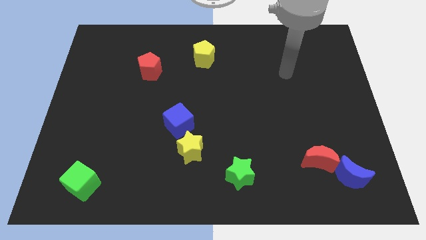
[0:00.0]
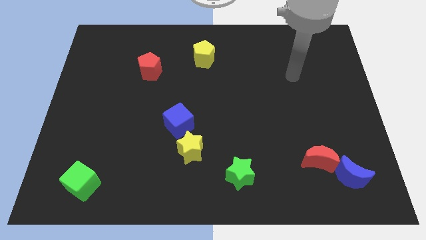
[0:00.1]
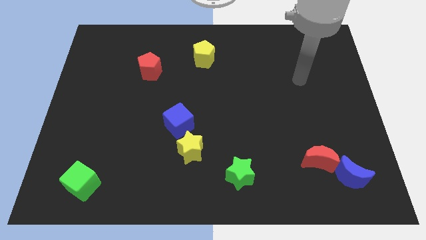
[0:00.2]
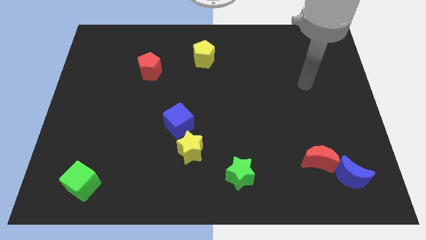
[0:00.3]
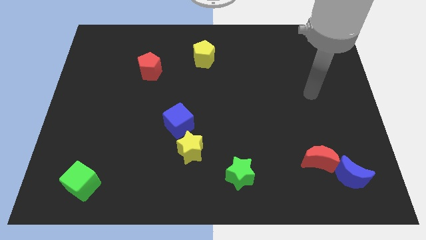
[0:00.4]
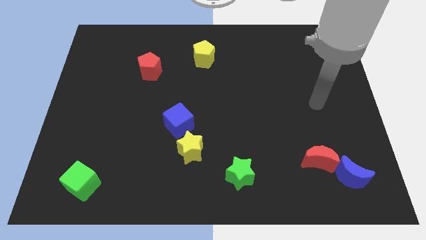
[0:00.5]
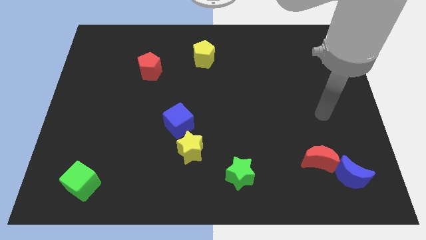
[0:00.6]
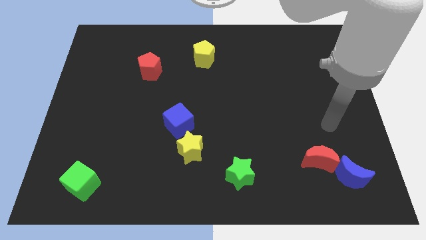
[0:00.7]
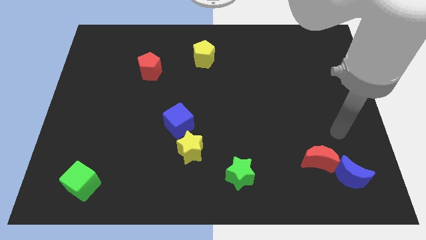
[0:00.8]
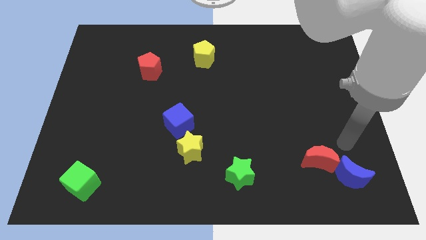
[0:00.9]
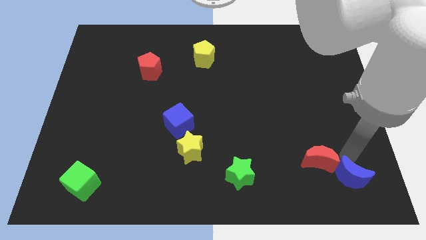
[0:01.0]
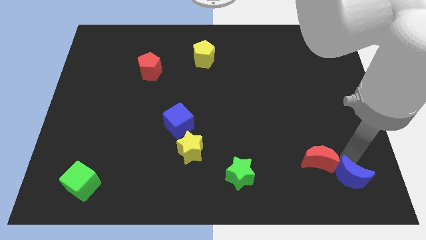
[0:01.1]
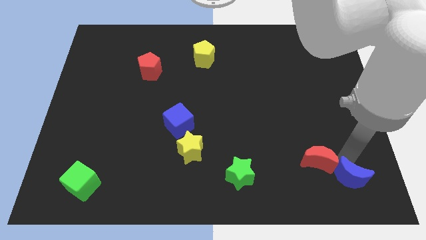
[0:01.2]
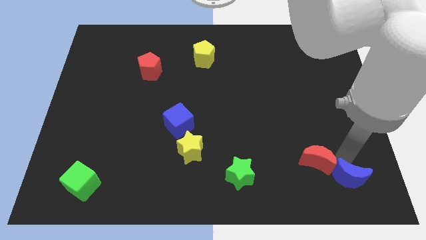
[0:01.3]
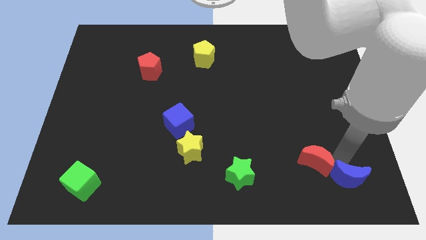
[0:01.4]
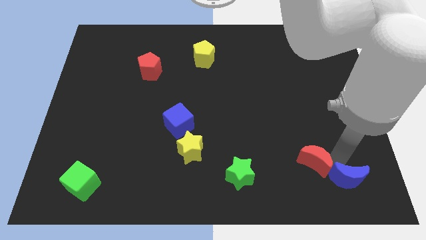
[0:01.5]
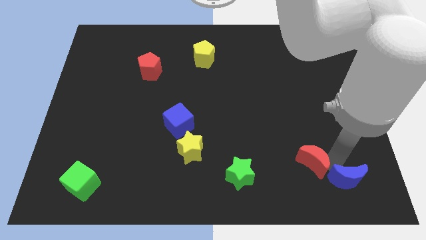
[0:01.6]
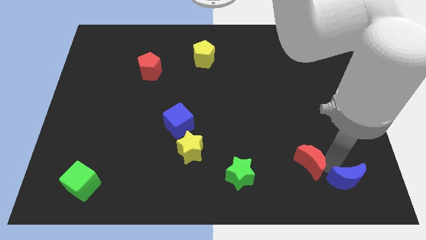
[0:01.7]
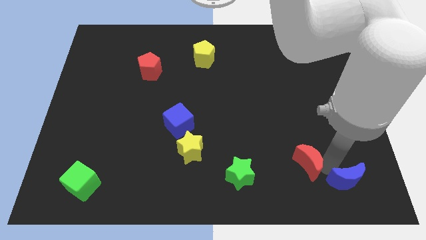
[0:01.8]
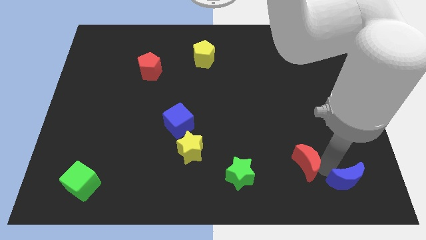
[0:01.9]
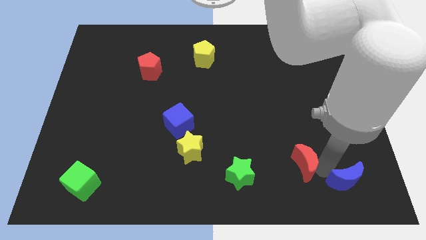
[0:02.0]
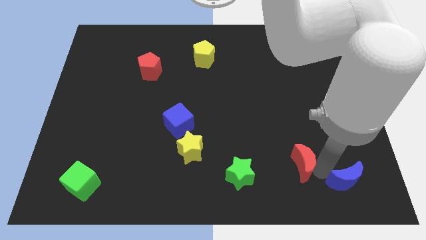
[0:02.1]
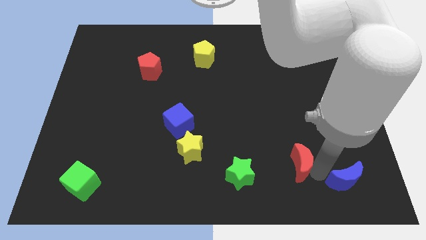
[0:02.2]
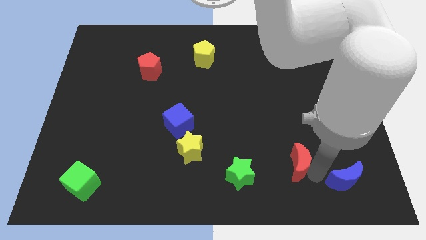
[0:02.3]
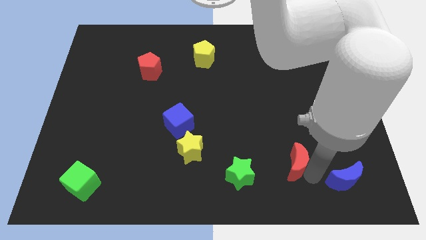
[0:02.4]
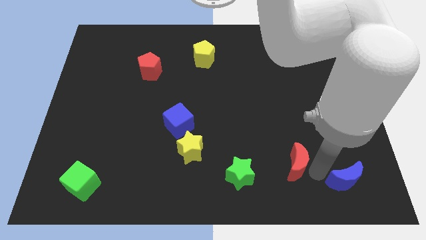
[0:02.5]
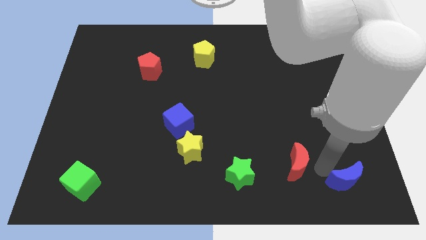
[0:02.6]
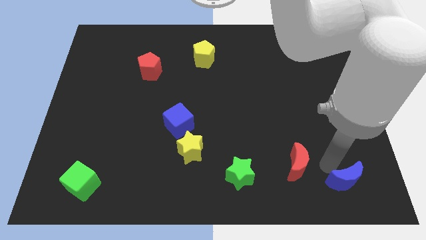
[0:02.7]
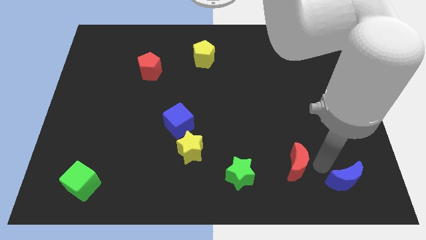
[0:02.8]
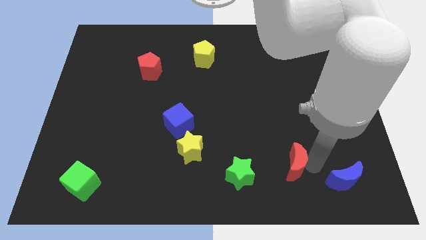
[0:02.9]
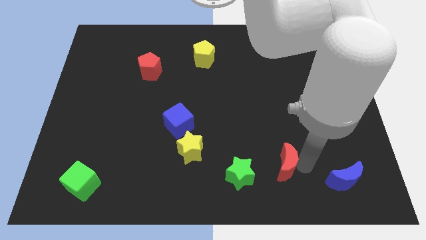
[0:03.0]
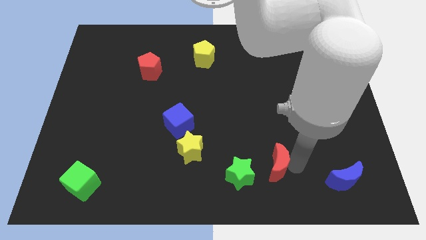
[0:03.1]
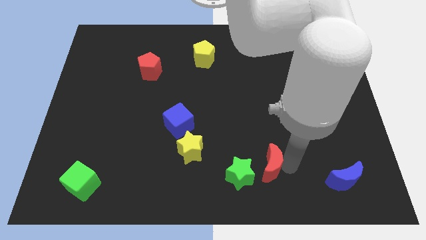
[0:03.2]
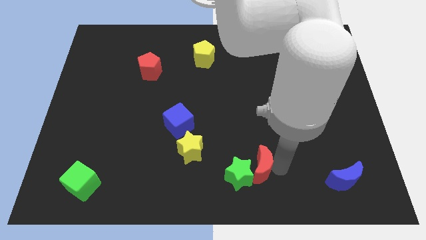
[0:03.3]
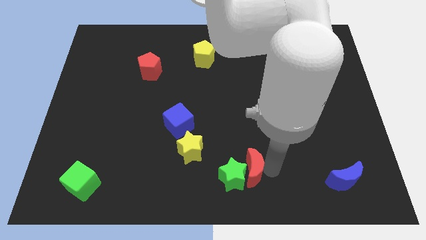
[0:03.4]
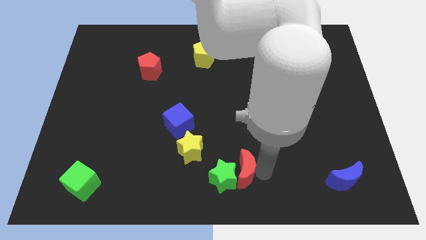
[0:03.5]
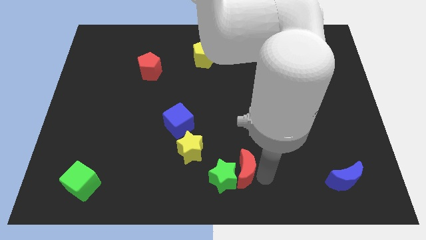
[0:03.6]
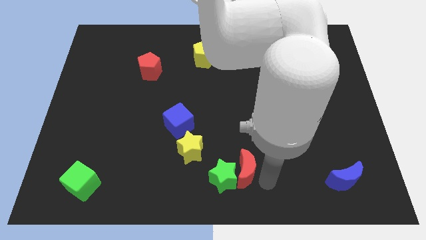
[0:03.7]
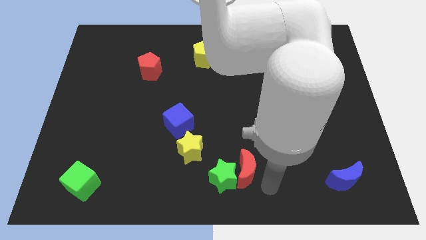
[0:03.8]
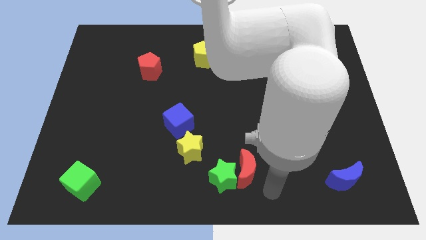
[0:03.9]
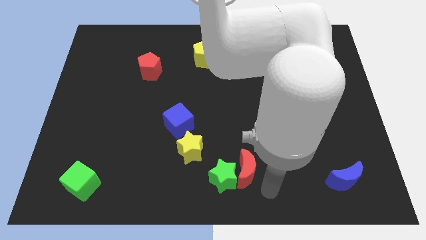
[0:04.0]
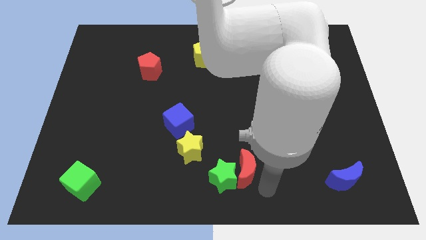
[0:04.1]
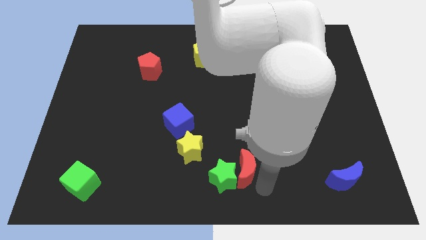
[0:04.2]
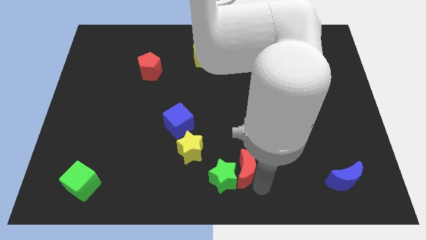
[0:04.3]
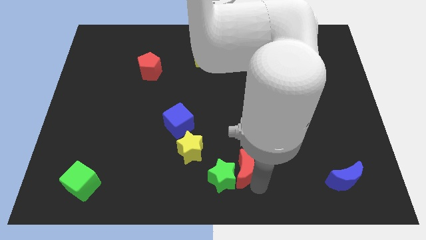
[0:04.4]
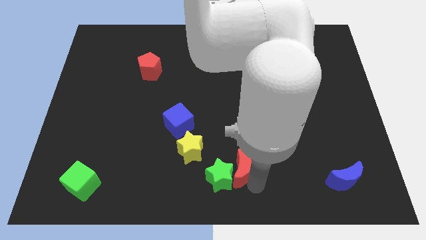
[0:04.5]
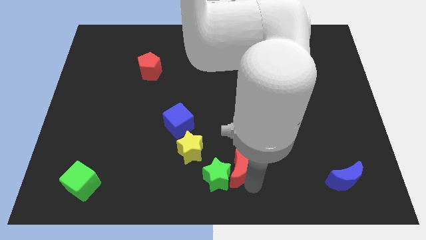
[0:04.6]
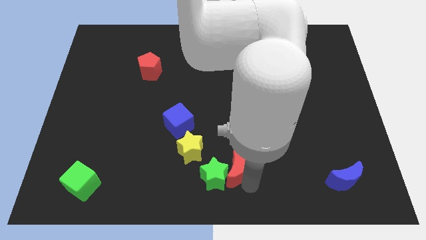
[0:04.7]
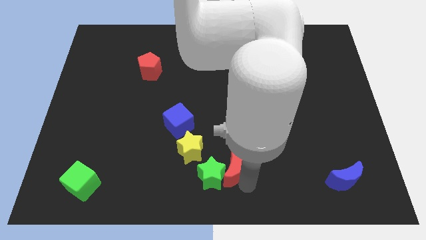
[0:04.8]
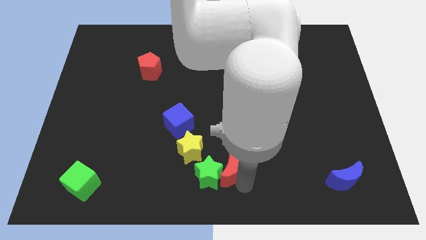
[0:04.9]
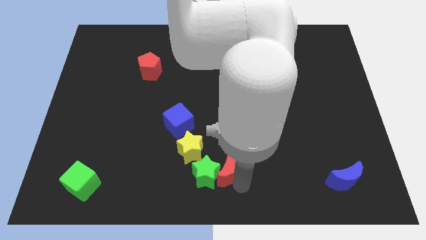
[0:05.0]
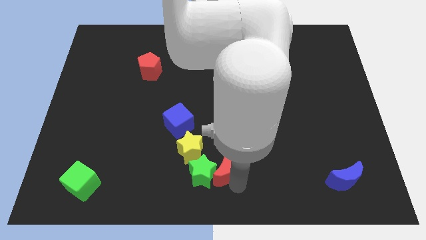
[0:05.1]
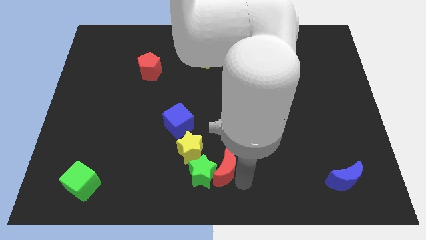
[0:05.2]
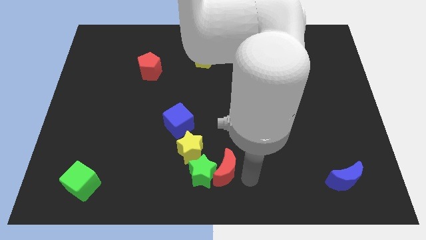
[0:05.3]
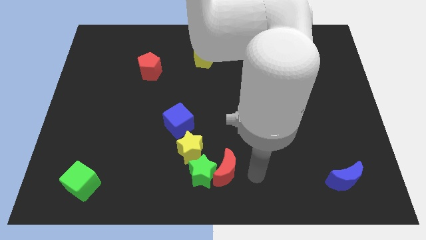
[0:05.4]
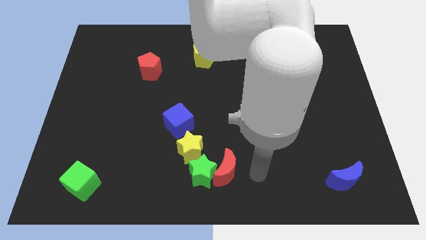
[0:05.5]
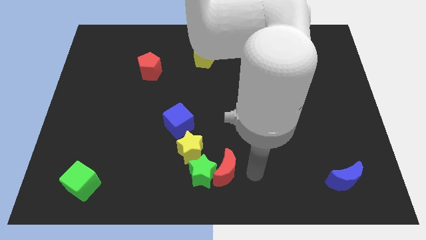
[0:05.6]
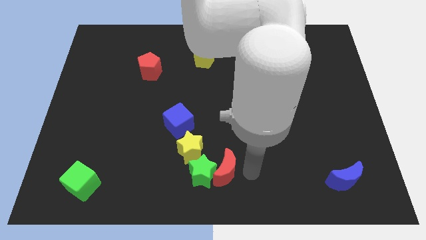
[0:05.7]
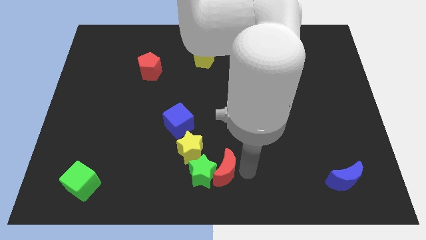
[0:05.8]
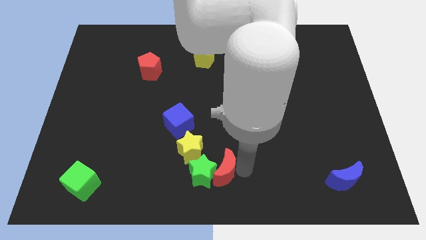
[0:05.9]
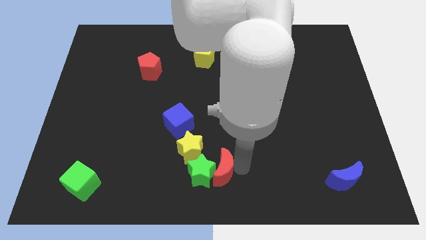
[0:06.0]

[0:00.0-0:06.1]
move the red moon left

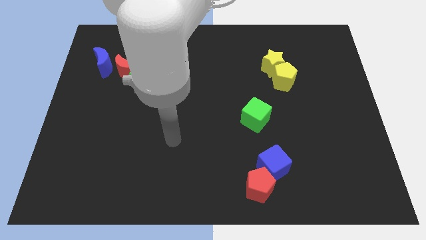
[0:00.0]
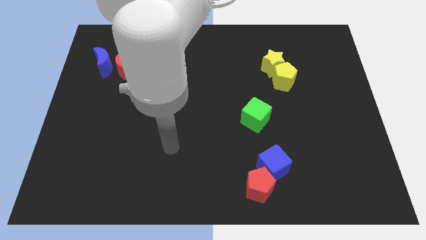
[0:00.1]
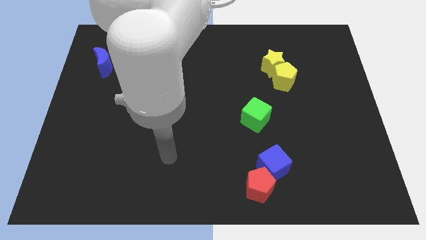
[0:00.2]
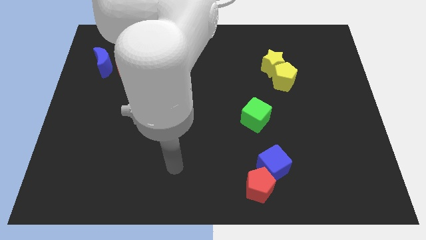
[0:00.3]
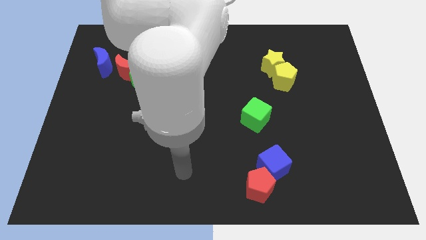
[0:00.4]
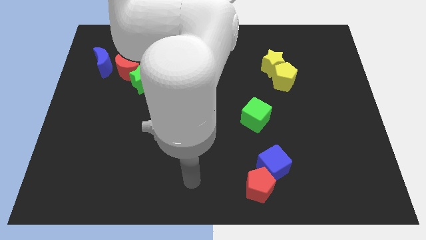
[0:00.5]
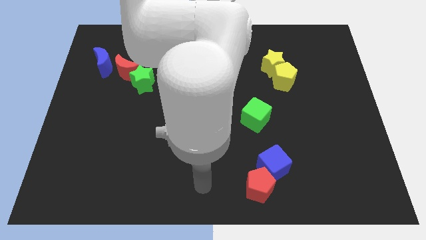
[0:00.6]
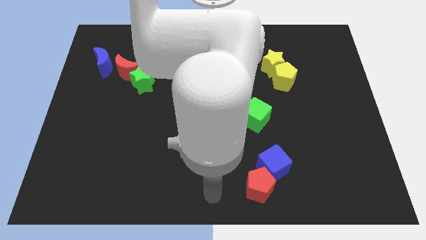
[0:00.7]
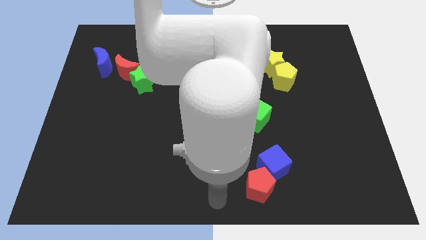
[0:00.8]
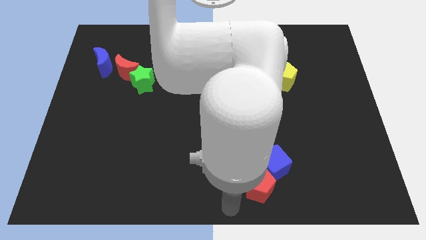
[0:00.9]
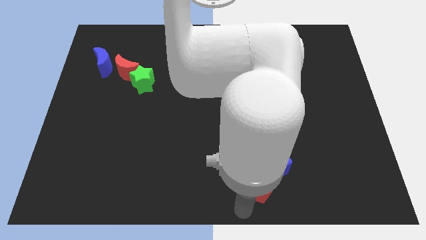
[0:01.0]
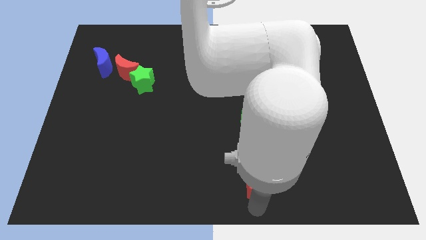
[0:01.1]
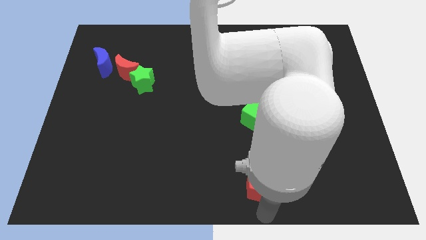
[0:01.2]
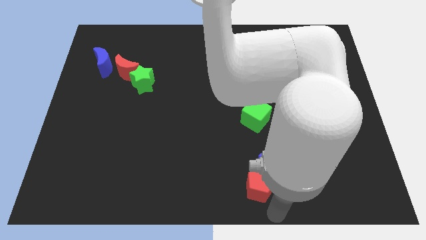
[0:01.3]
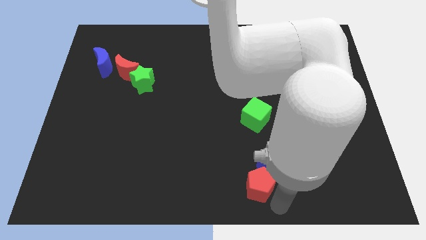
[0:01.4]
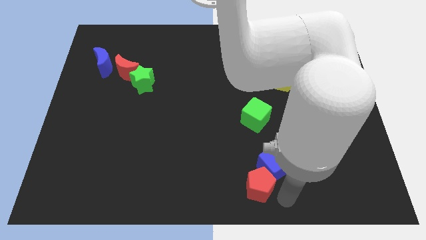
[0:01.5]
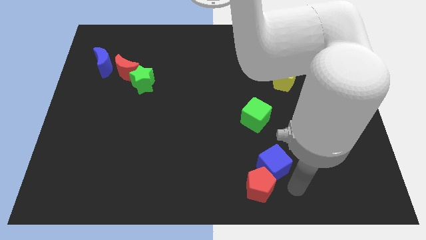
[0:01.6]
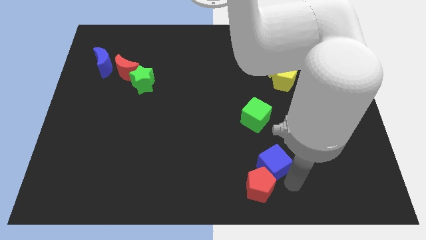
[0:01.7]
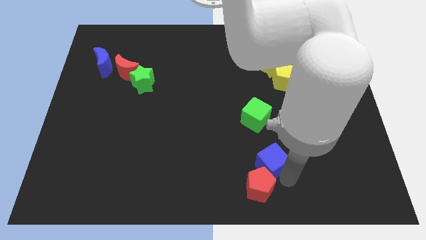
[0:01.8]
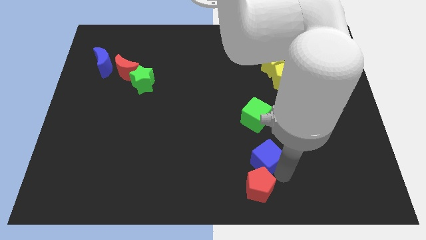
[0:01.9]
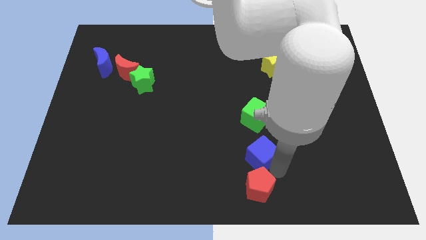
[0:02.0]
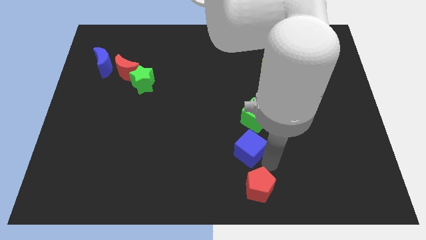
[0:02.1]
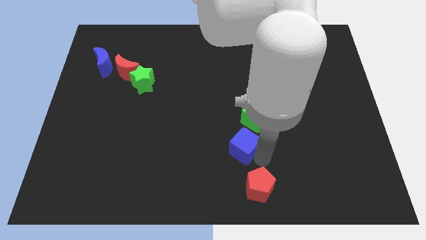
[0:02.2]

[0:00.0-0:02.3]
move the blue cube a bit upwards and then to the left
